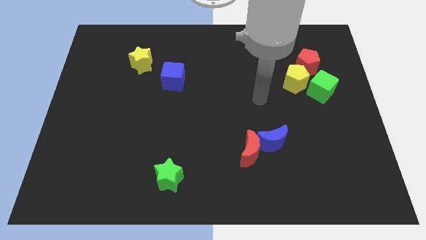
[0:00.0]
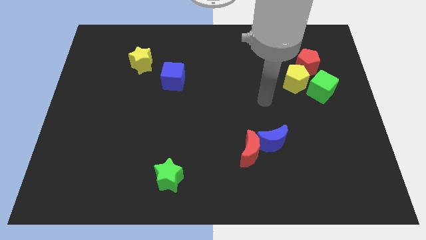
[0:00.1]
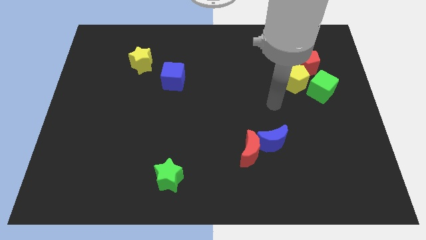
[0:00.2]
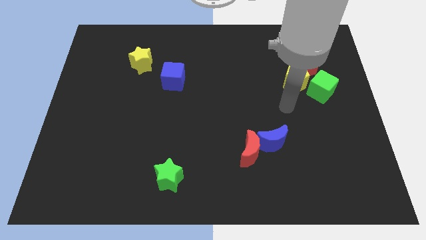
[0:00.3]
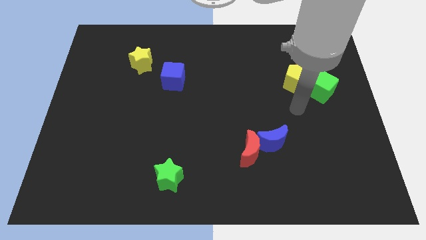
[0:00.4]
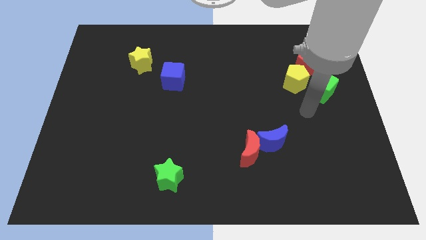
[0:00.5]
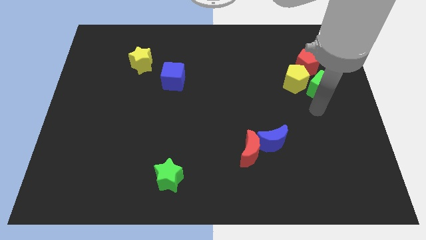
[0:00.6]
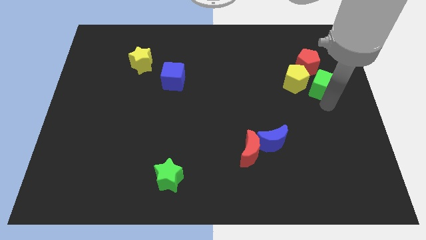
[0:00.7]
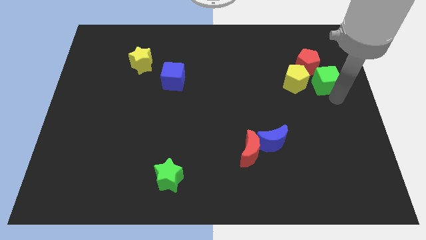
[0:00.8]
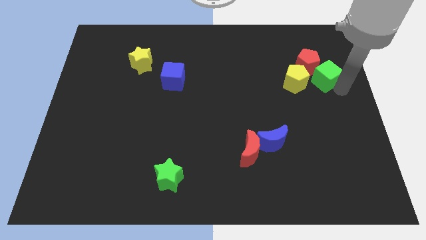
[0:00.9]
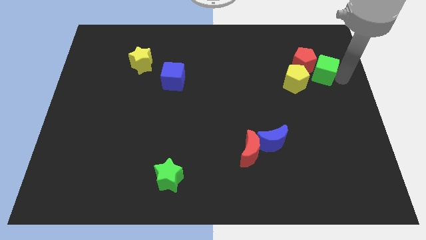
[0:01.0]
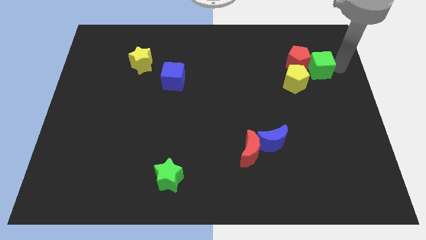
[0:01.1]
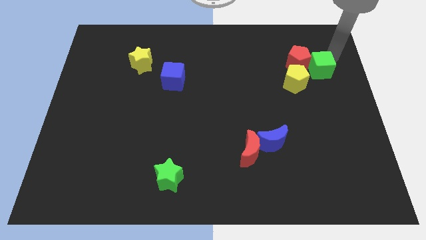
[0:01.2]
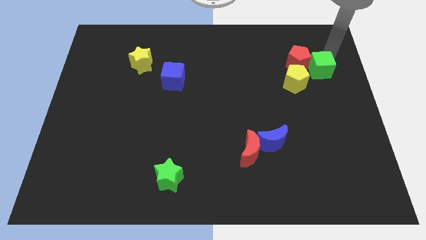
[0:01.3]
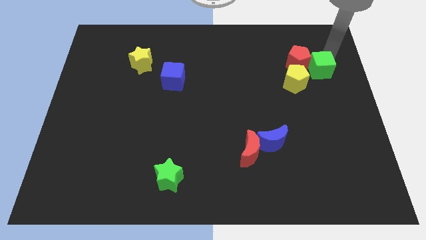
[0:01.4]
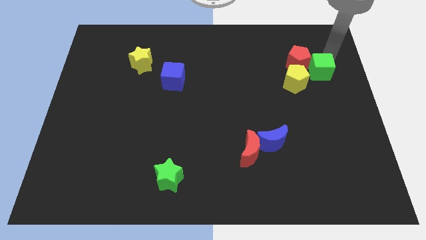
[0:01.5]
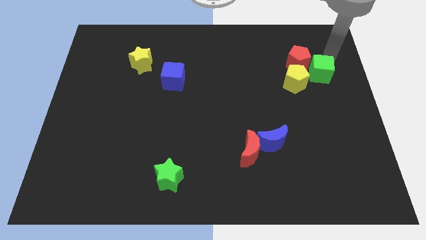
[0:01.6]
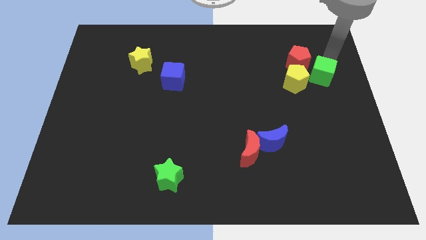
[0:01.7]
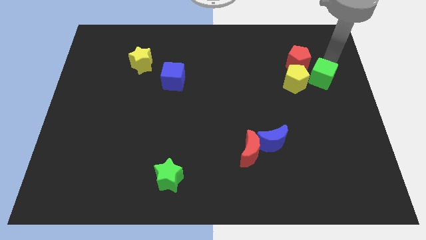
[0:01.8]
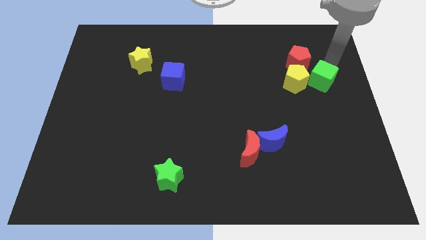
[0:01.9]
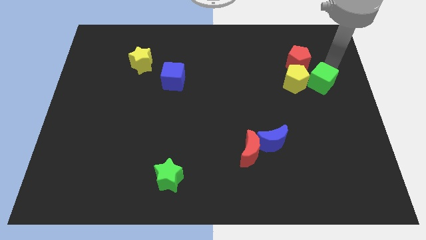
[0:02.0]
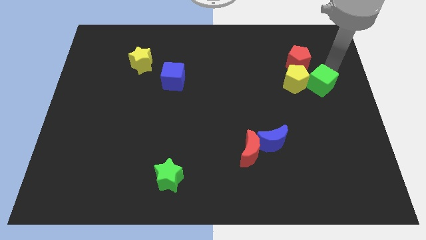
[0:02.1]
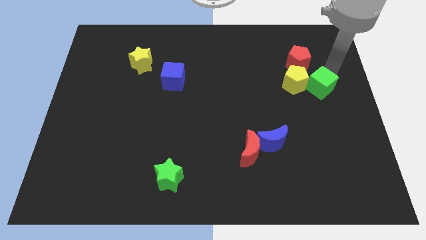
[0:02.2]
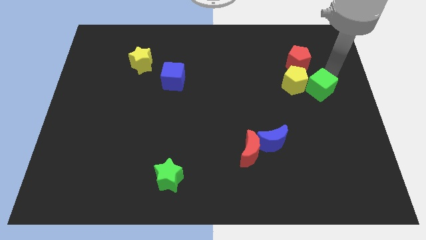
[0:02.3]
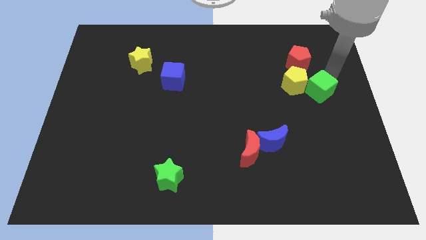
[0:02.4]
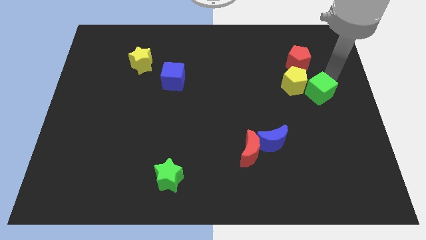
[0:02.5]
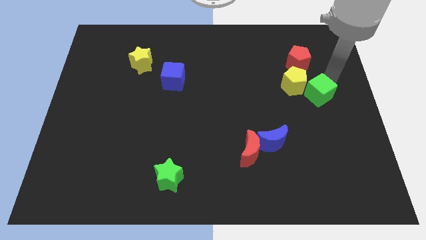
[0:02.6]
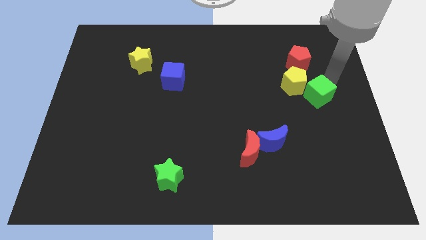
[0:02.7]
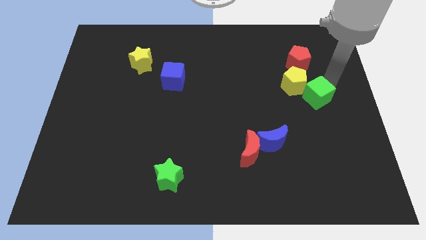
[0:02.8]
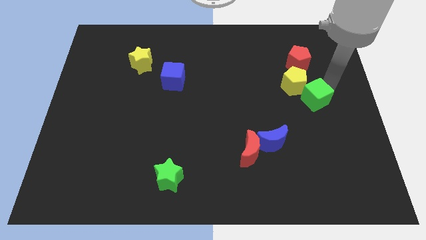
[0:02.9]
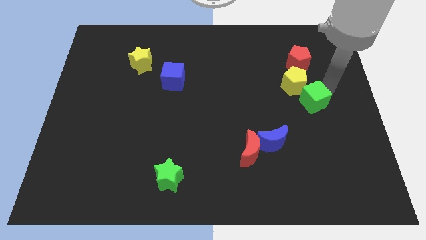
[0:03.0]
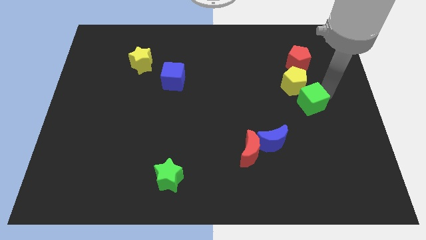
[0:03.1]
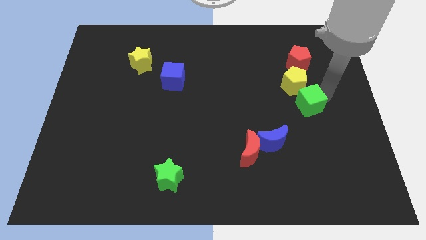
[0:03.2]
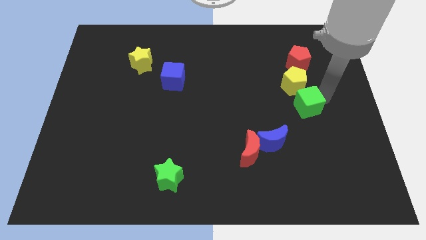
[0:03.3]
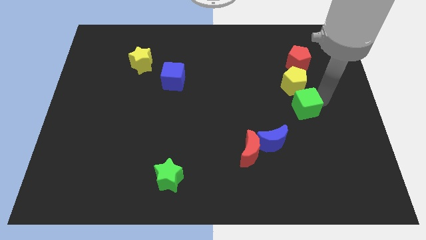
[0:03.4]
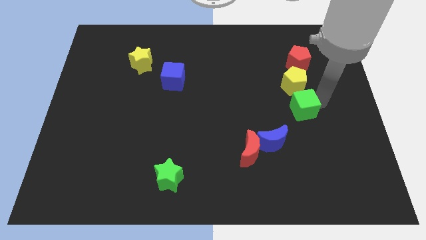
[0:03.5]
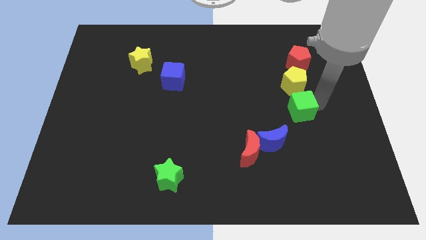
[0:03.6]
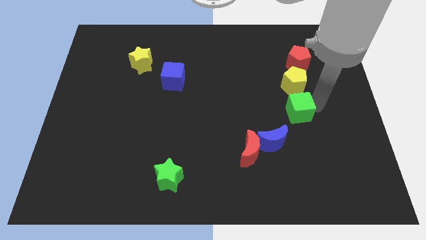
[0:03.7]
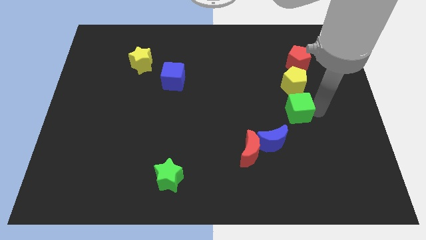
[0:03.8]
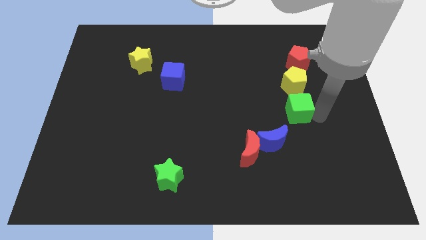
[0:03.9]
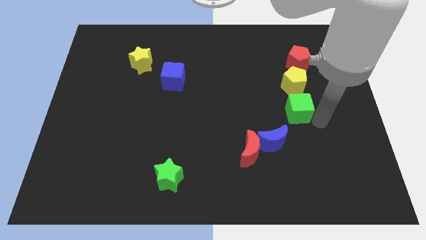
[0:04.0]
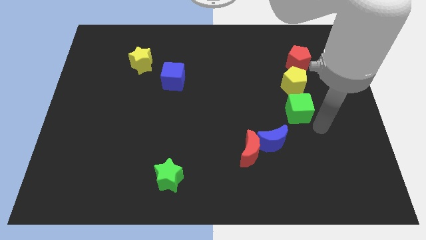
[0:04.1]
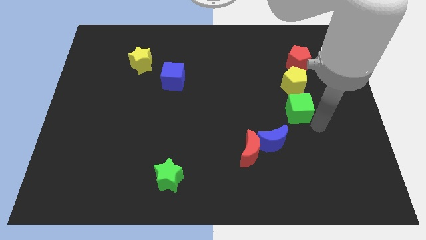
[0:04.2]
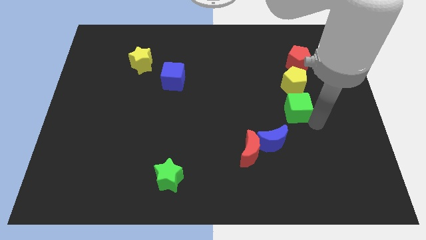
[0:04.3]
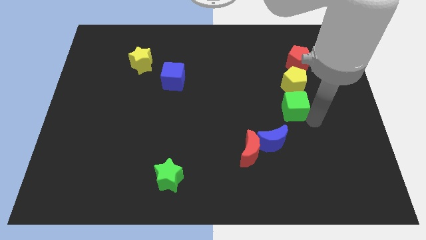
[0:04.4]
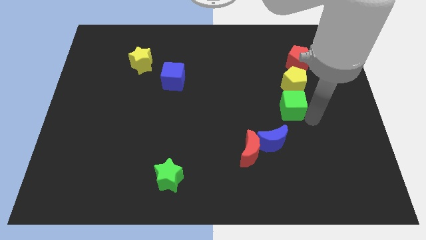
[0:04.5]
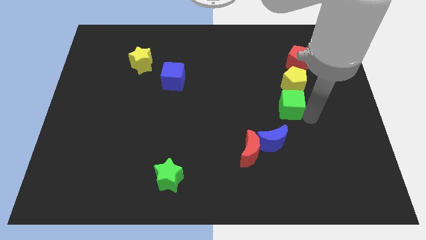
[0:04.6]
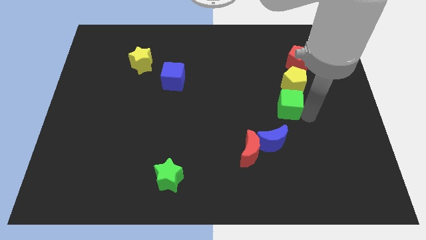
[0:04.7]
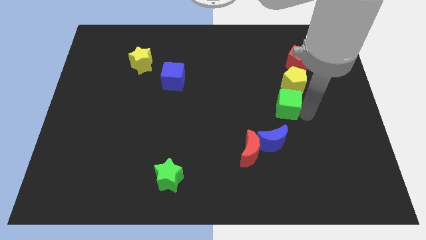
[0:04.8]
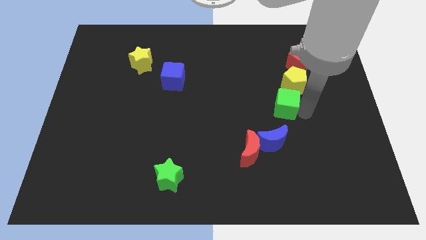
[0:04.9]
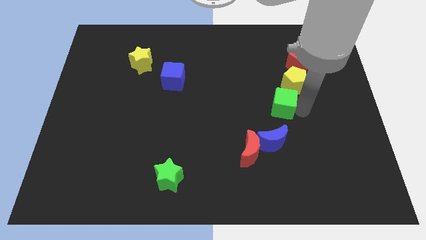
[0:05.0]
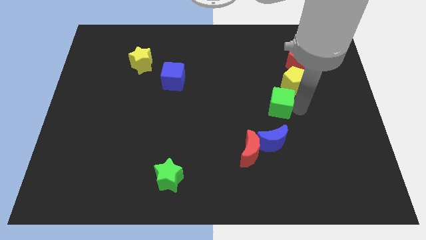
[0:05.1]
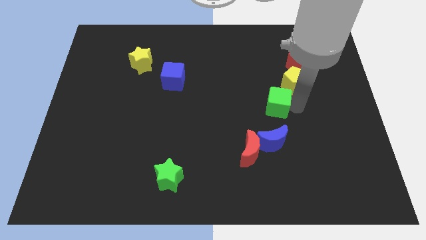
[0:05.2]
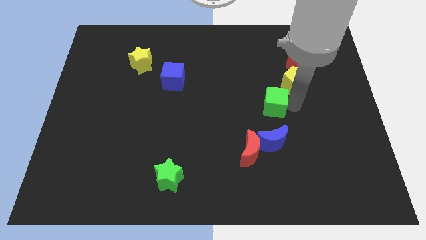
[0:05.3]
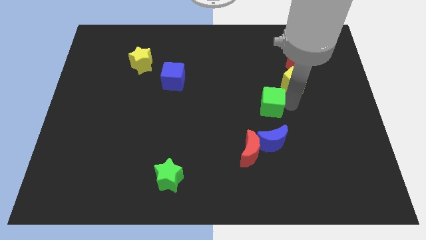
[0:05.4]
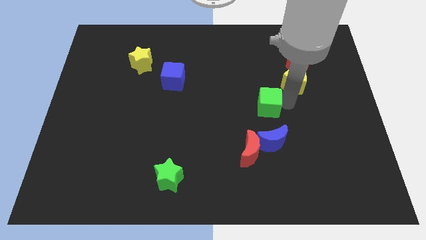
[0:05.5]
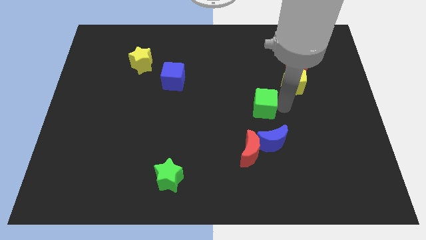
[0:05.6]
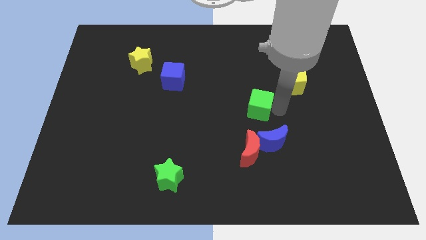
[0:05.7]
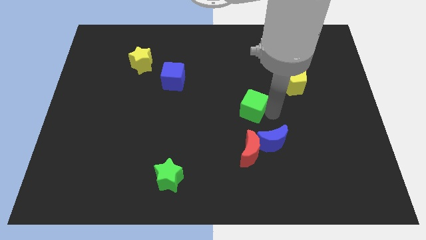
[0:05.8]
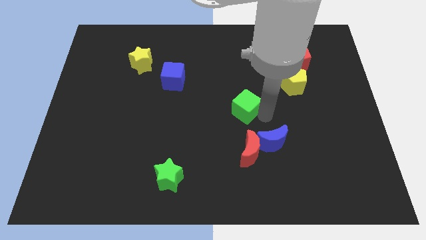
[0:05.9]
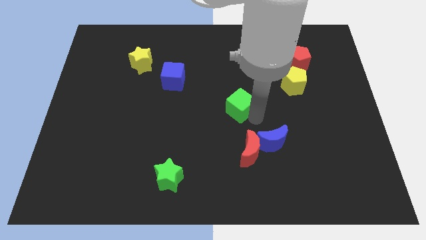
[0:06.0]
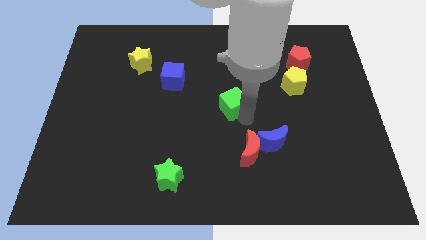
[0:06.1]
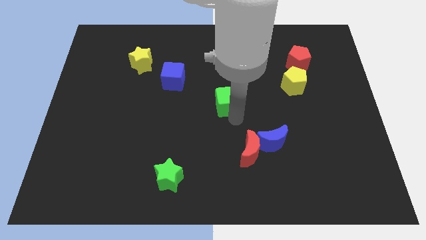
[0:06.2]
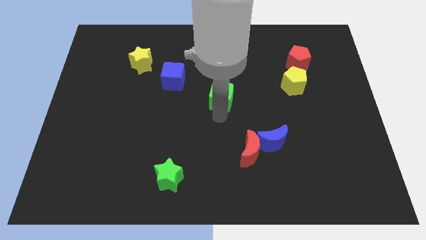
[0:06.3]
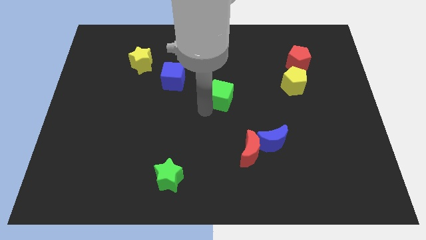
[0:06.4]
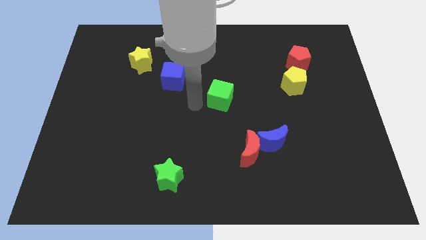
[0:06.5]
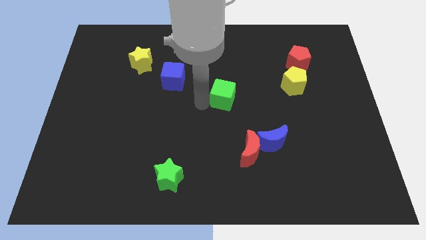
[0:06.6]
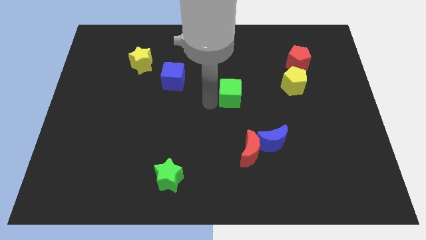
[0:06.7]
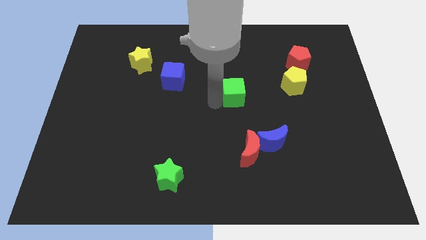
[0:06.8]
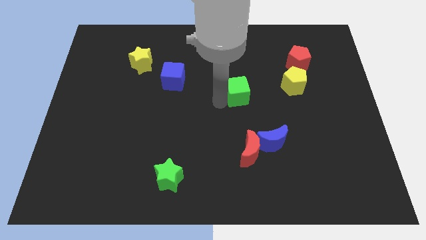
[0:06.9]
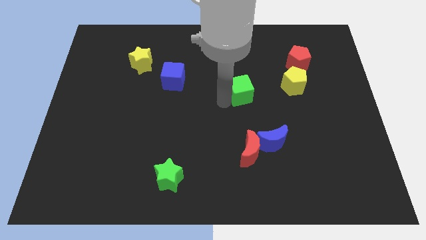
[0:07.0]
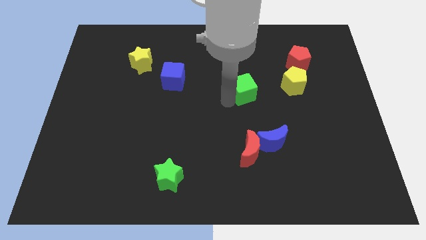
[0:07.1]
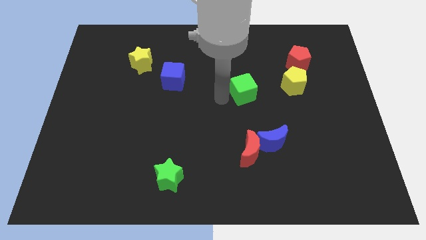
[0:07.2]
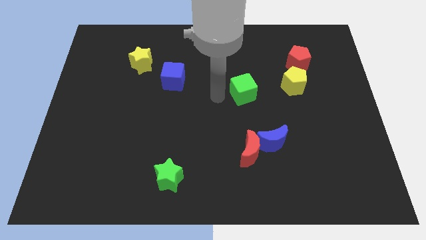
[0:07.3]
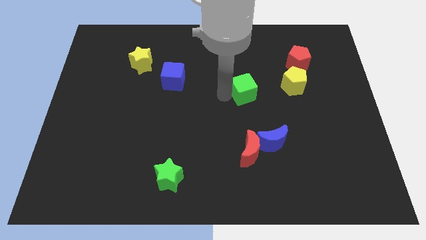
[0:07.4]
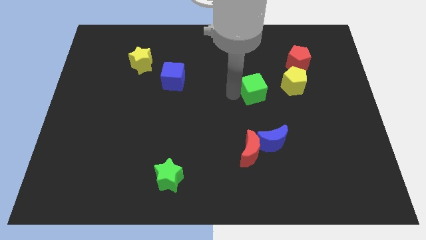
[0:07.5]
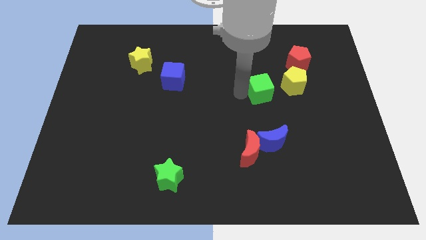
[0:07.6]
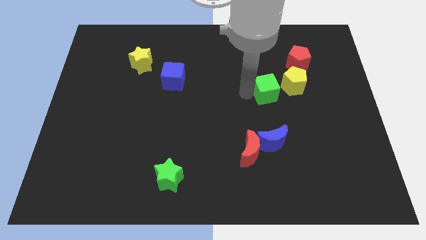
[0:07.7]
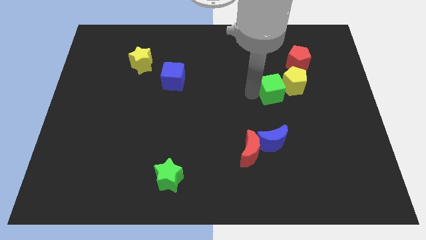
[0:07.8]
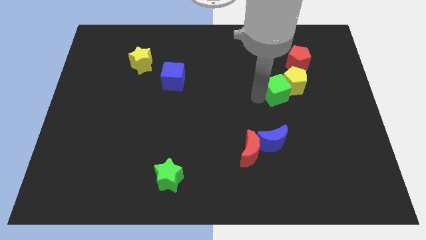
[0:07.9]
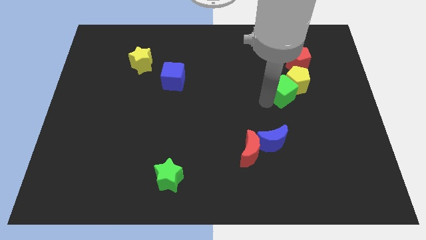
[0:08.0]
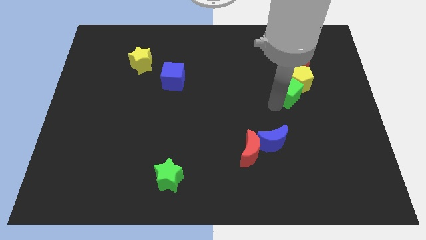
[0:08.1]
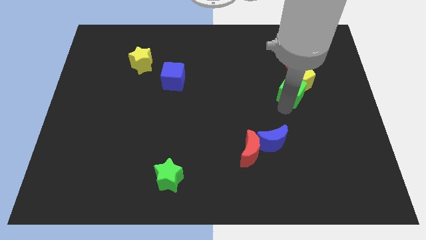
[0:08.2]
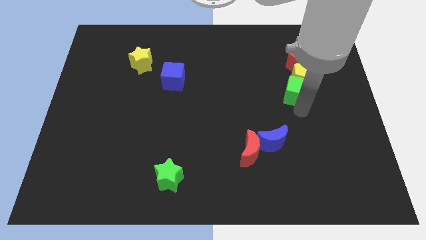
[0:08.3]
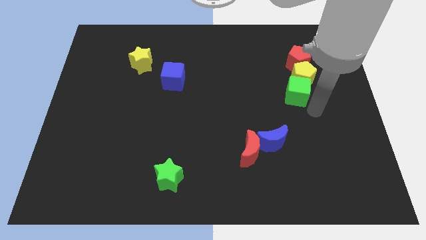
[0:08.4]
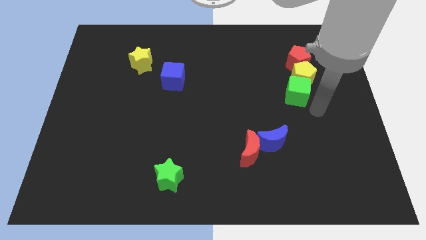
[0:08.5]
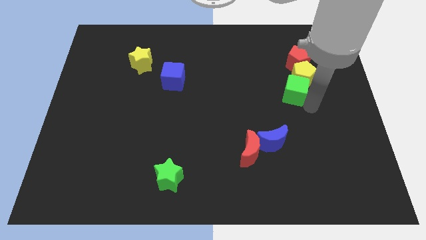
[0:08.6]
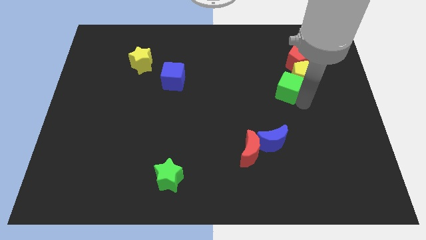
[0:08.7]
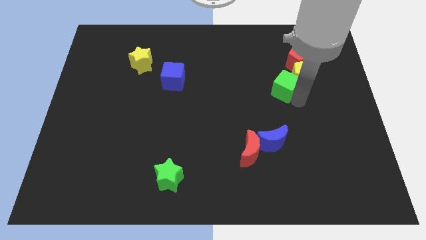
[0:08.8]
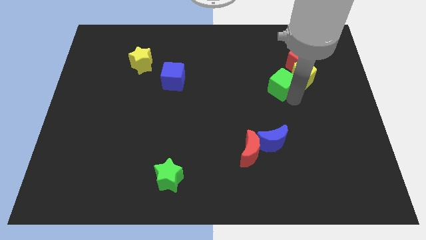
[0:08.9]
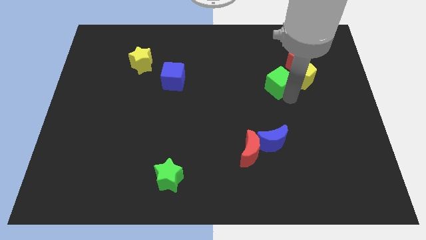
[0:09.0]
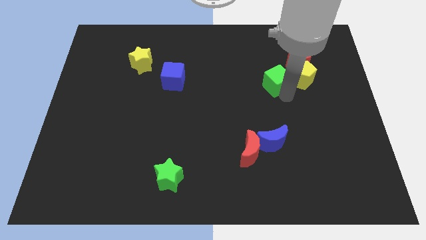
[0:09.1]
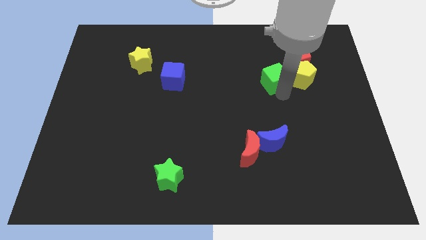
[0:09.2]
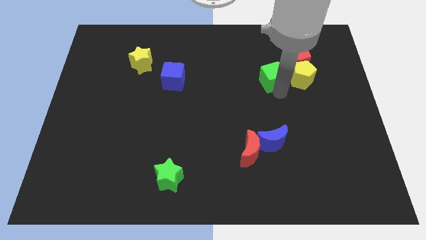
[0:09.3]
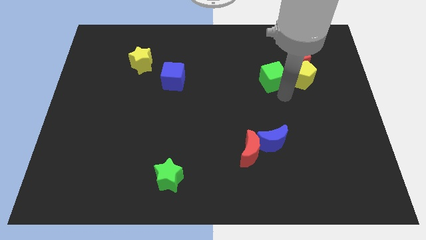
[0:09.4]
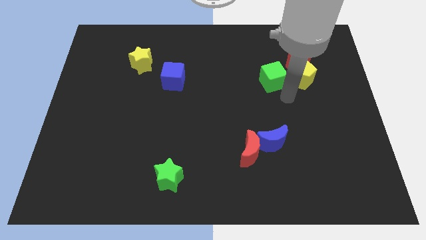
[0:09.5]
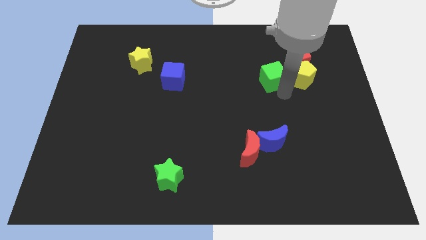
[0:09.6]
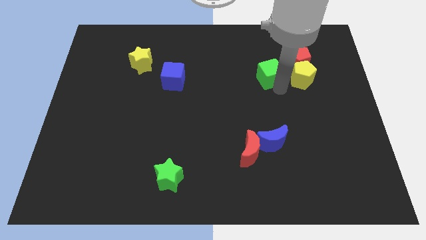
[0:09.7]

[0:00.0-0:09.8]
move the green cube to the left side of the red pentagon
